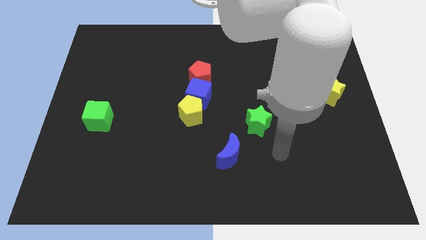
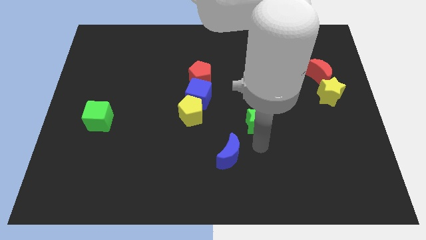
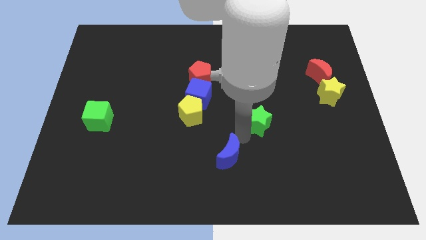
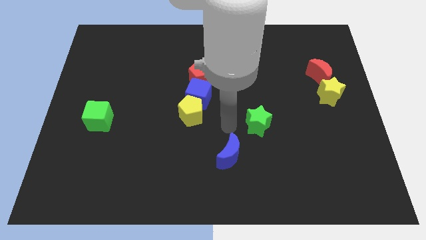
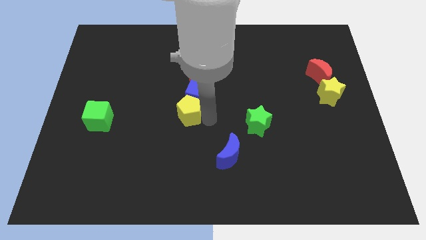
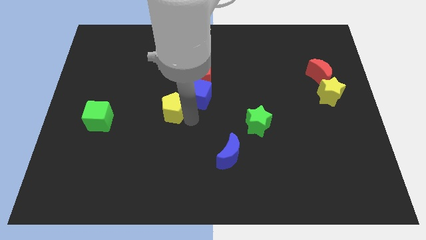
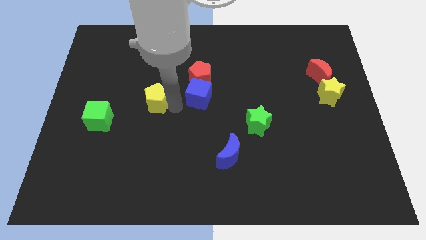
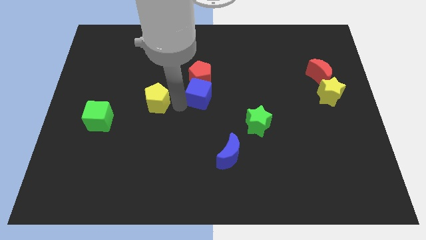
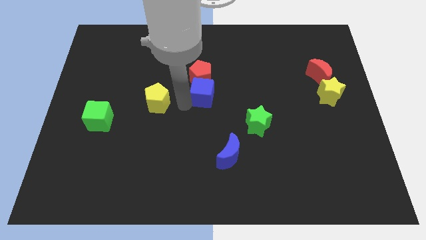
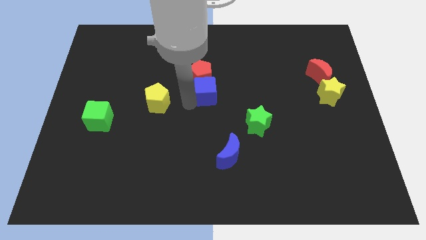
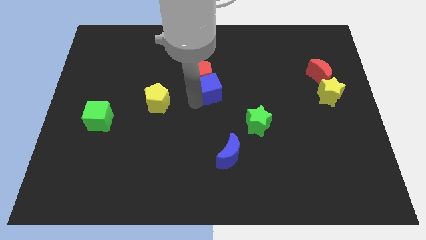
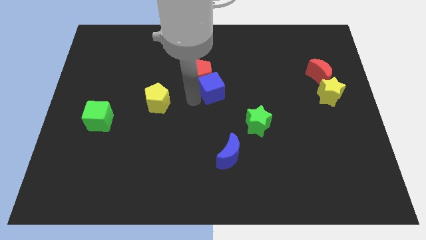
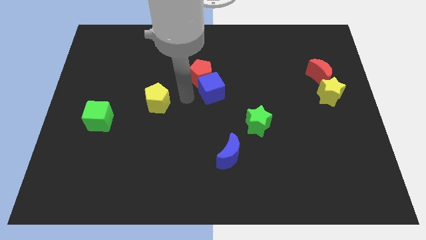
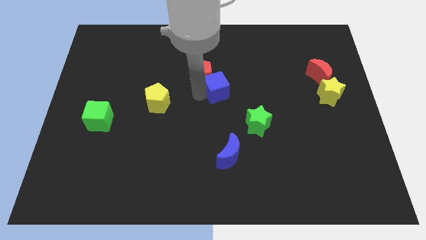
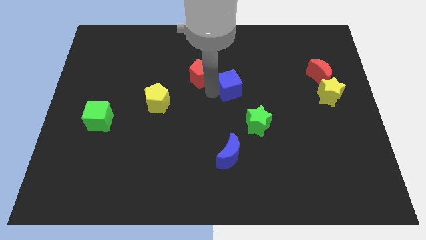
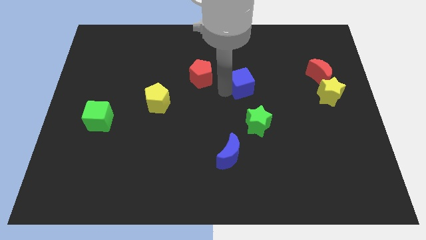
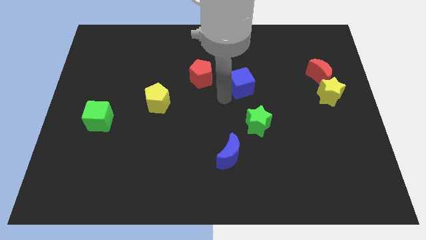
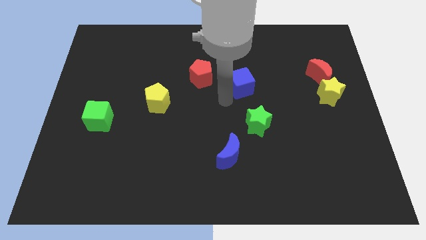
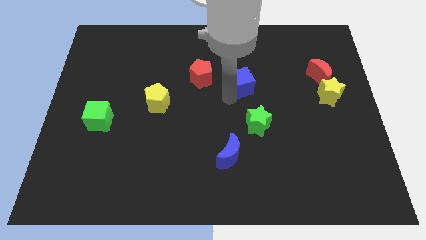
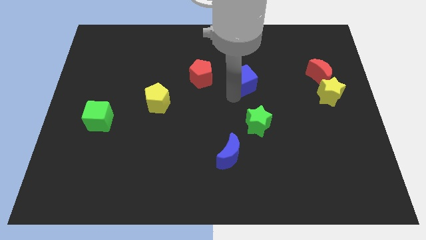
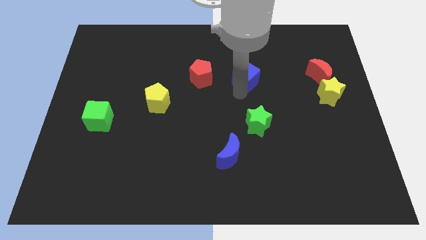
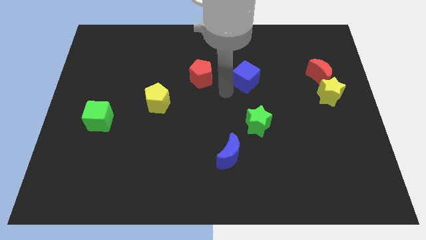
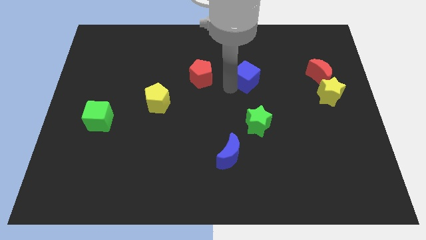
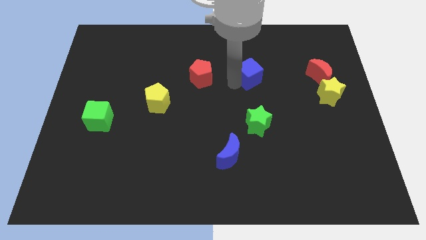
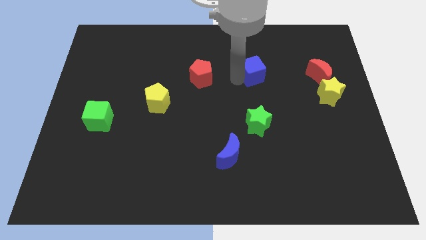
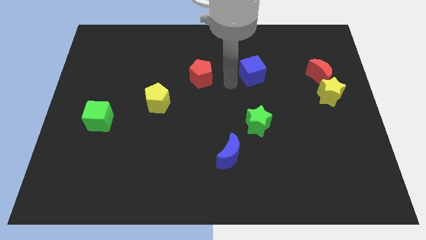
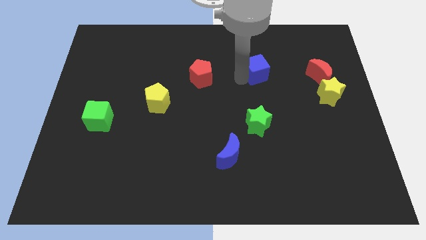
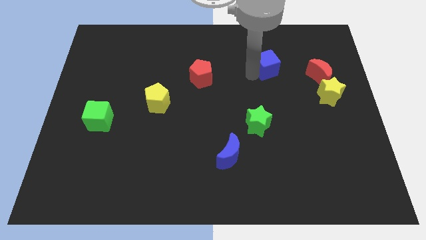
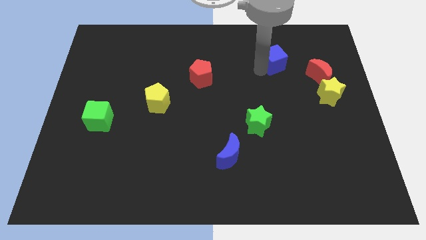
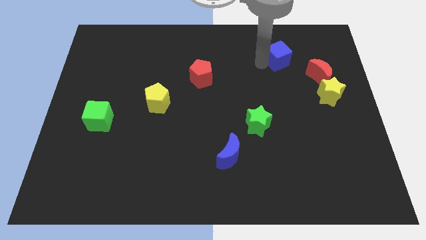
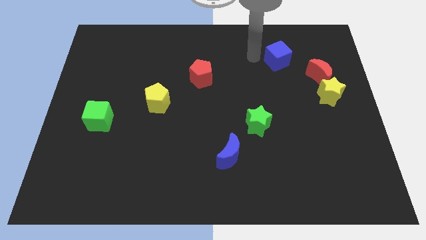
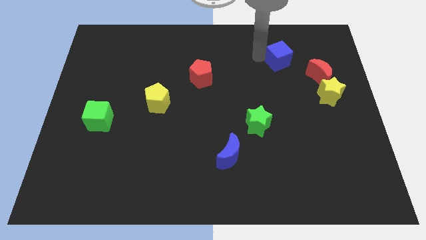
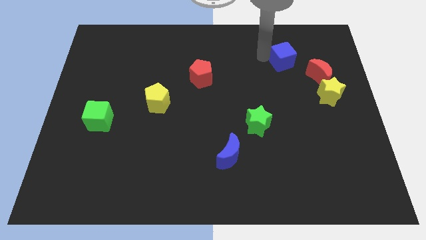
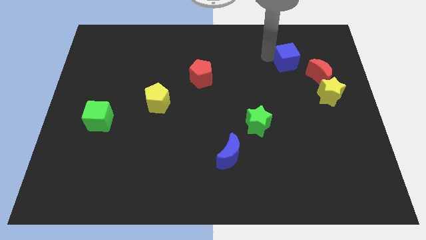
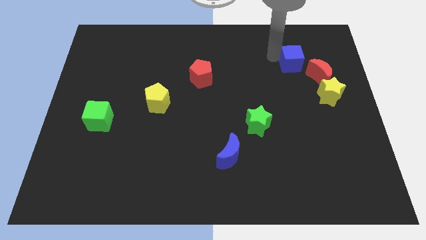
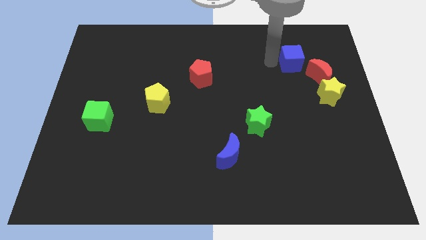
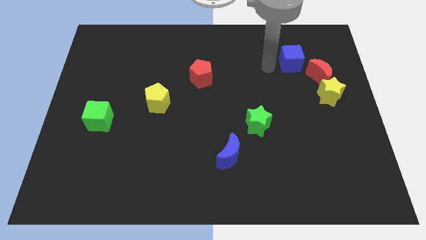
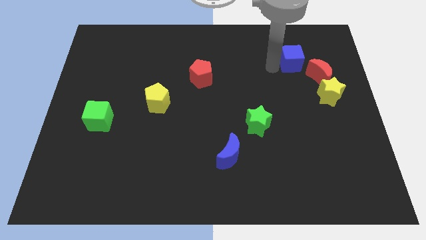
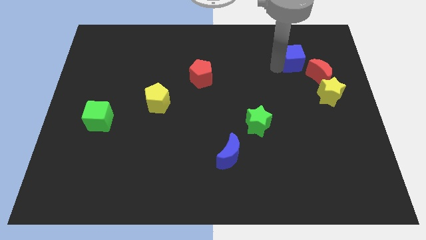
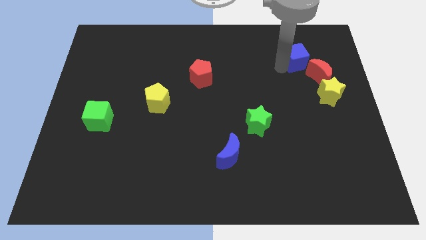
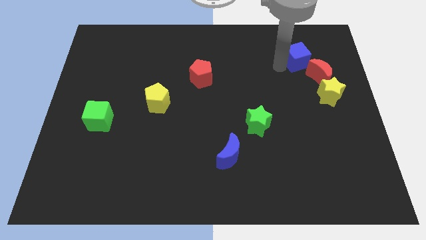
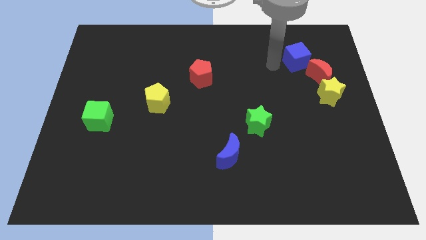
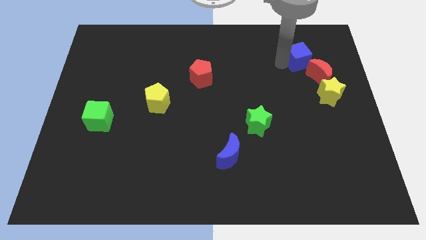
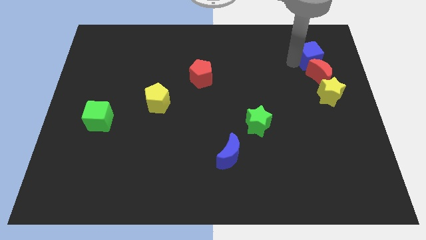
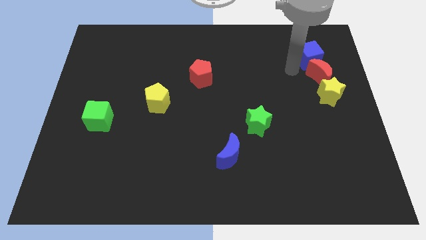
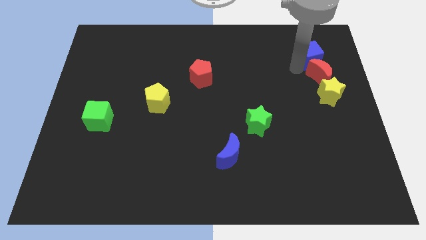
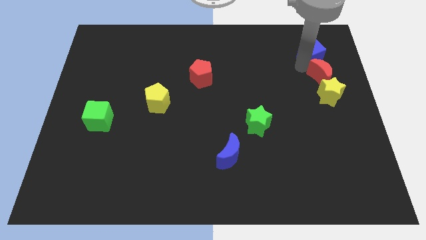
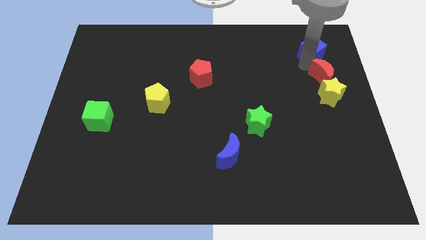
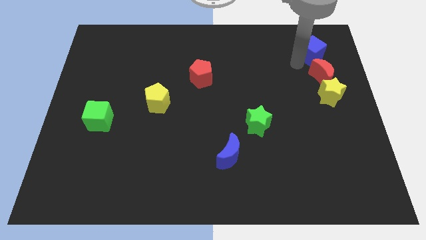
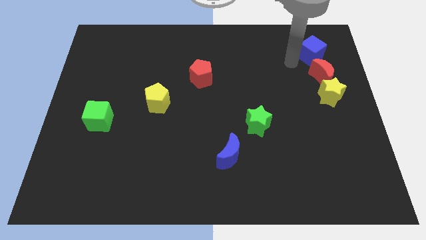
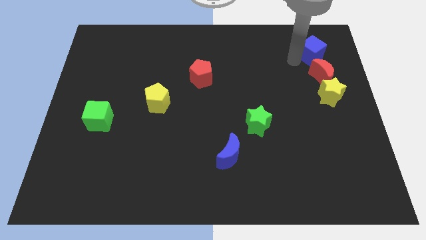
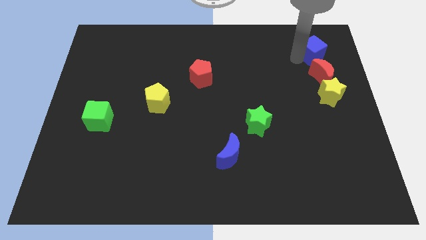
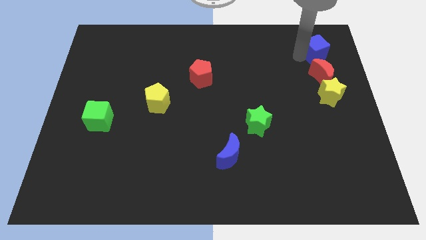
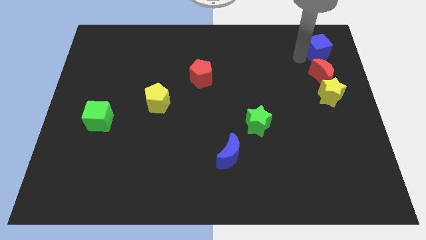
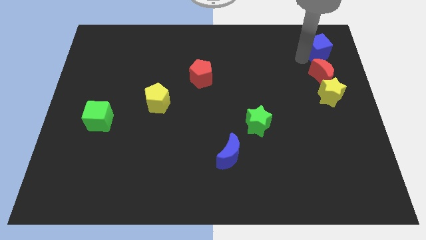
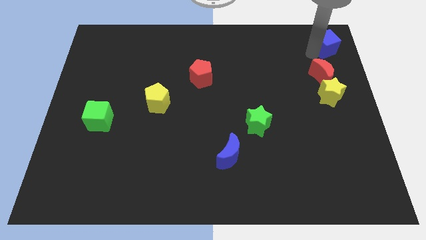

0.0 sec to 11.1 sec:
slide the blue cube to the top right

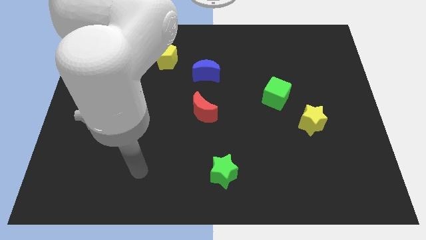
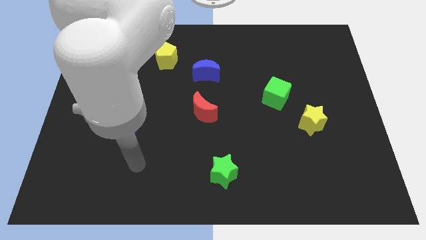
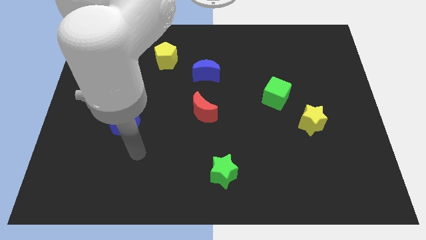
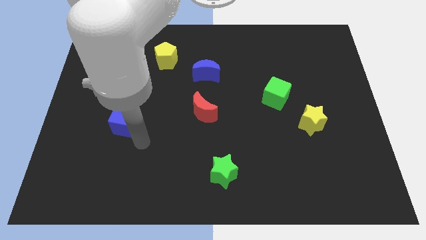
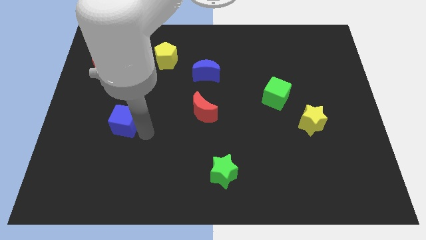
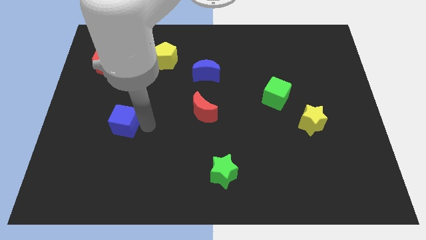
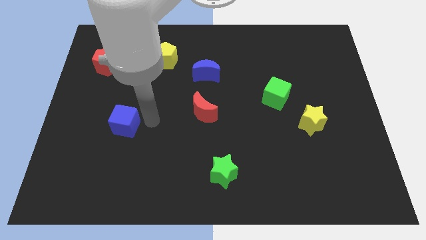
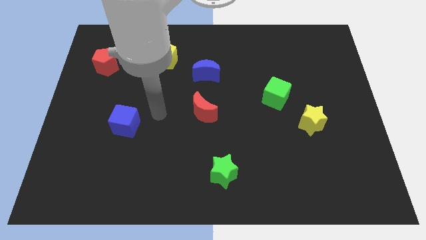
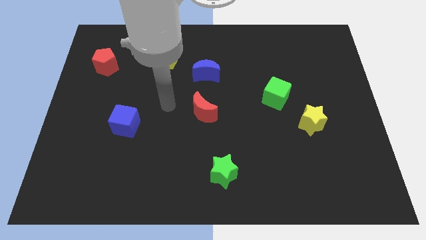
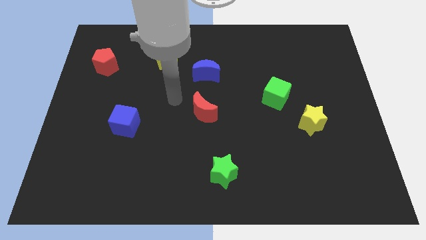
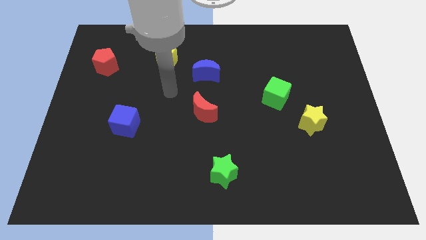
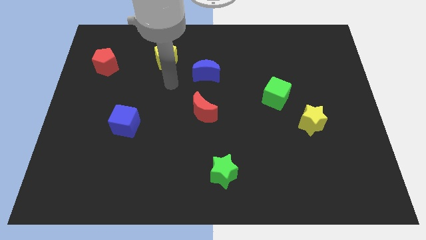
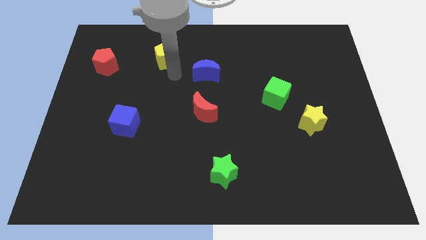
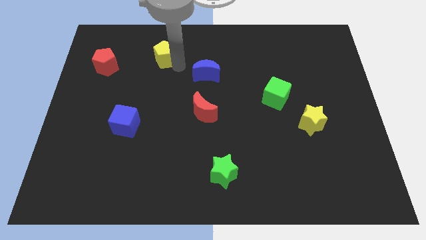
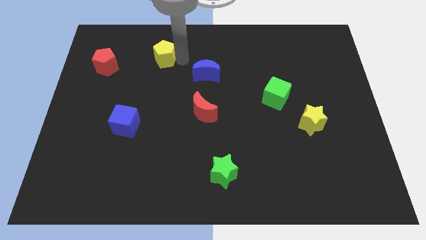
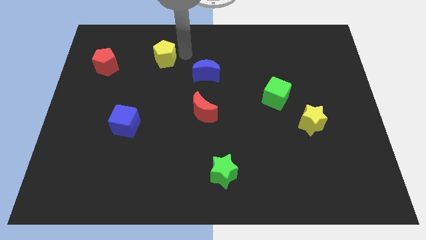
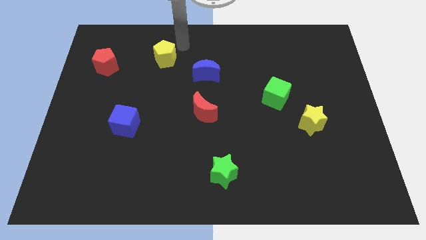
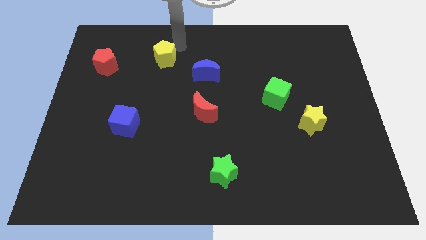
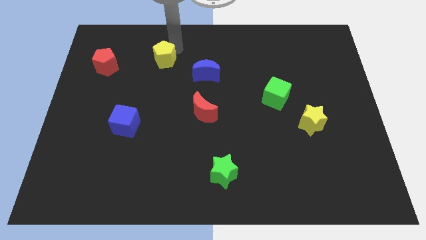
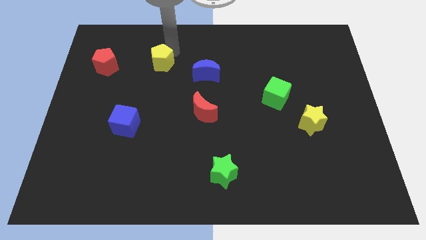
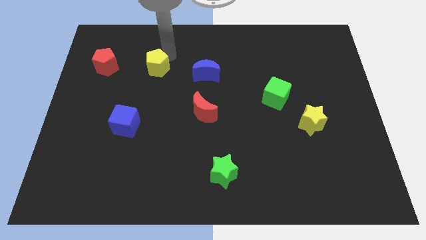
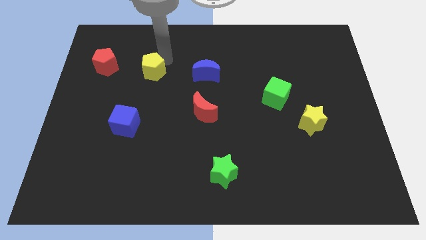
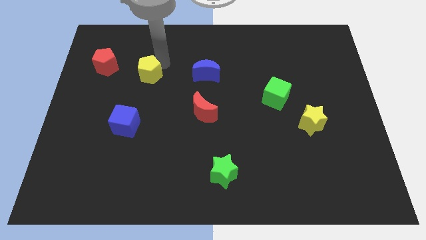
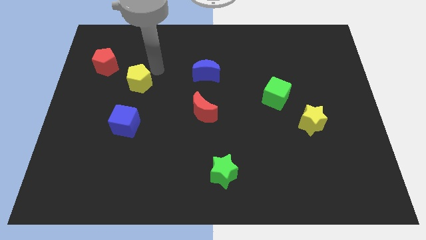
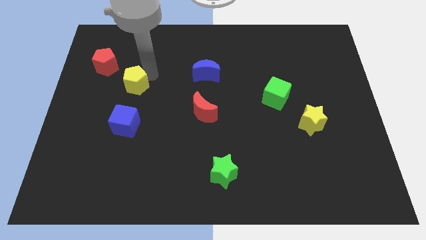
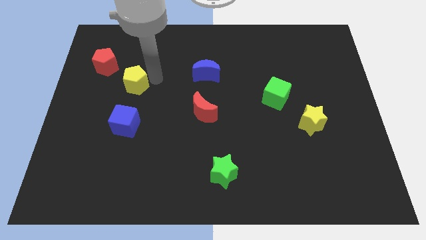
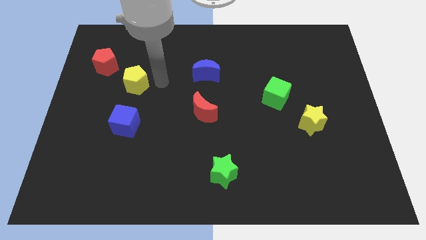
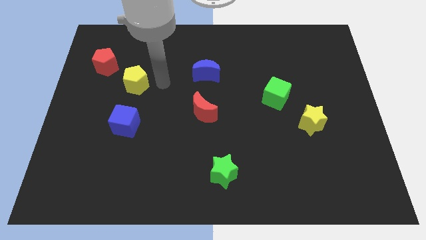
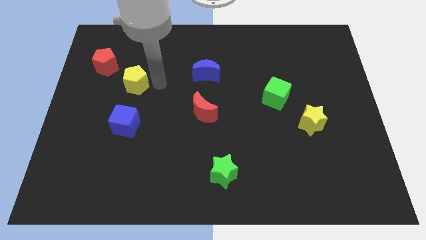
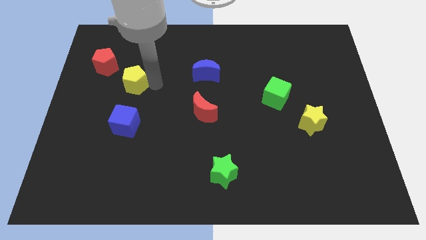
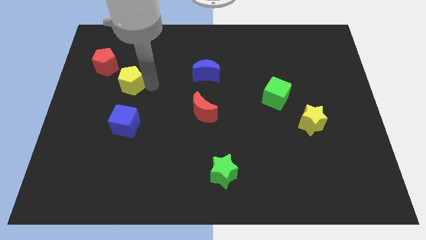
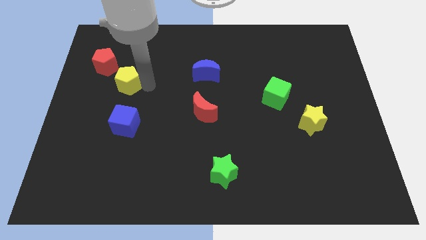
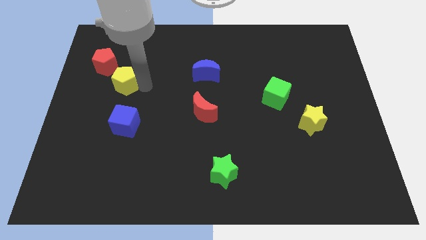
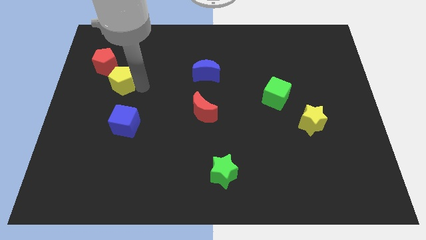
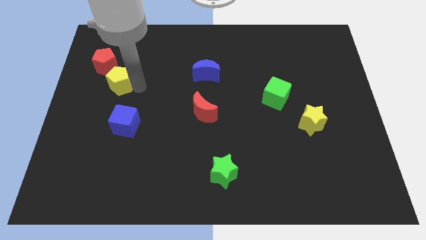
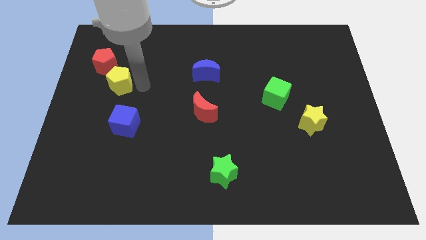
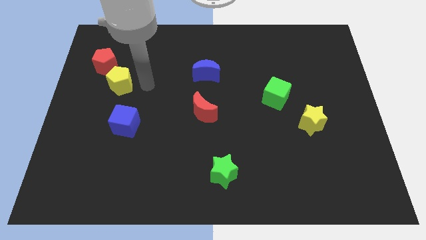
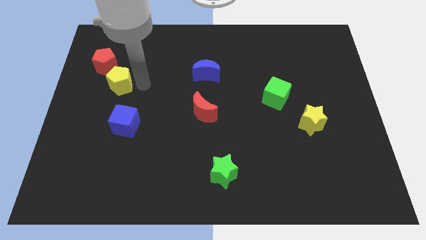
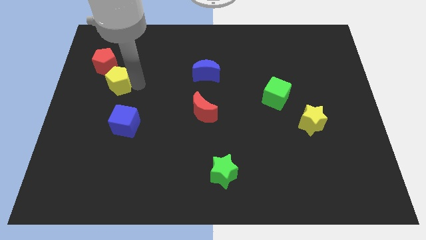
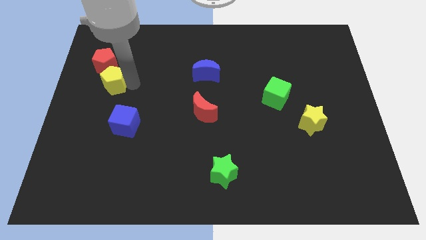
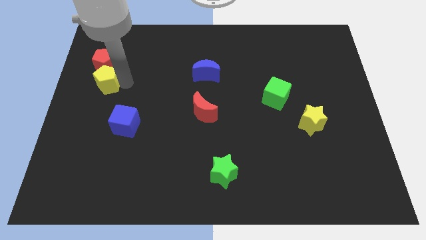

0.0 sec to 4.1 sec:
slide the yellow pentagon to the left side
